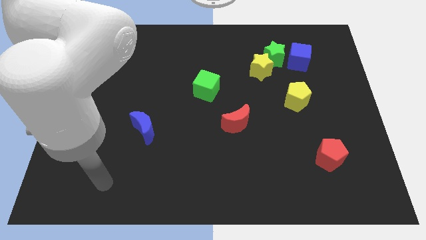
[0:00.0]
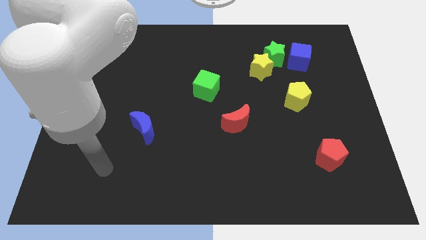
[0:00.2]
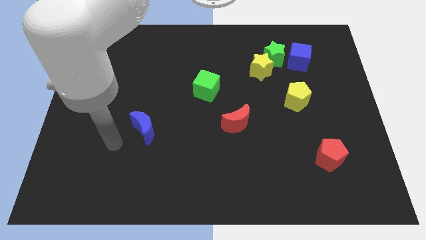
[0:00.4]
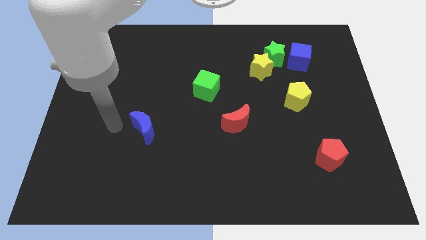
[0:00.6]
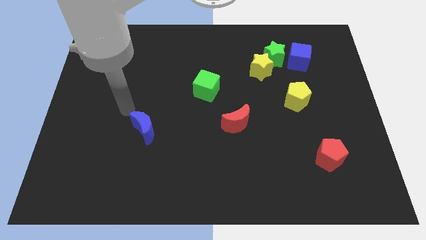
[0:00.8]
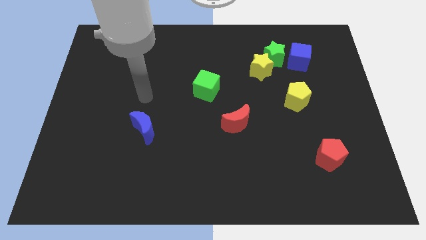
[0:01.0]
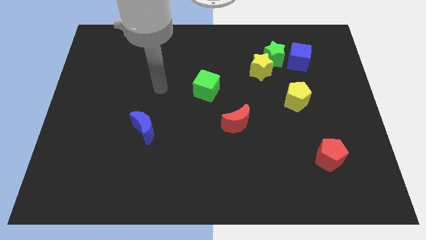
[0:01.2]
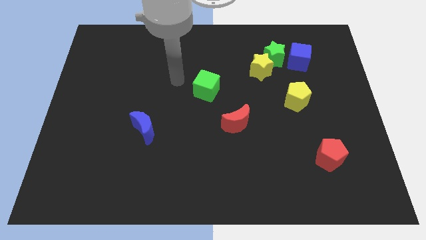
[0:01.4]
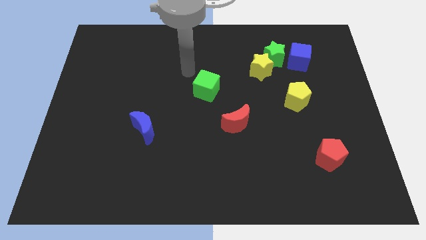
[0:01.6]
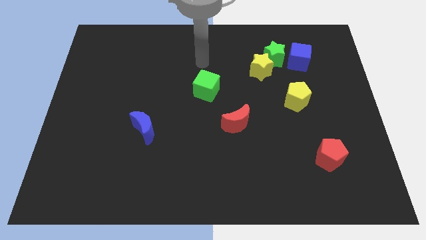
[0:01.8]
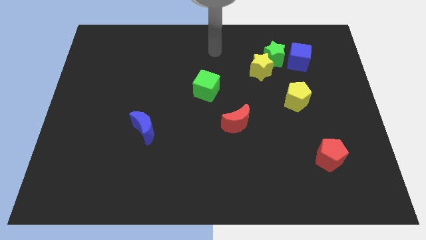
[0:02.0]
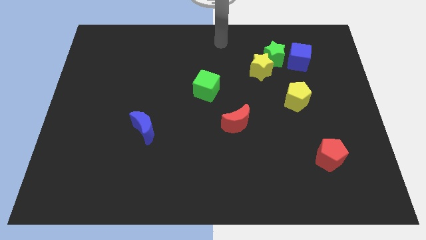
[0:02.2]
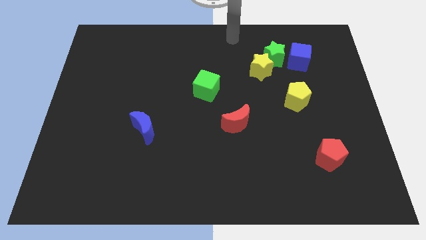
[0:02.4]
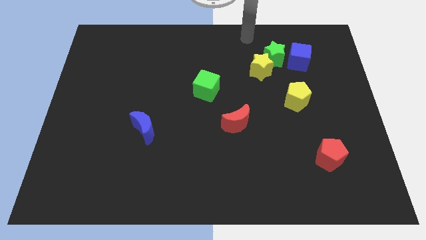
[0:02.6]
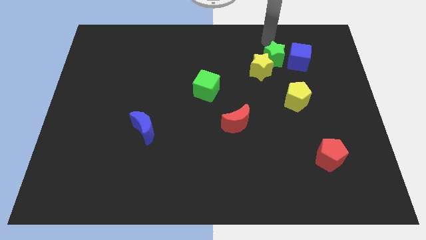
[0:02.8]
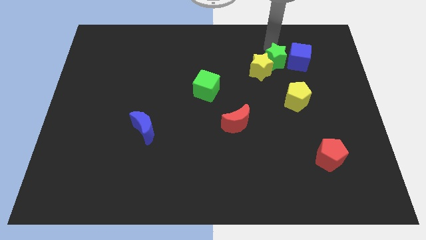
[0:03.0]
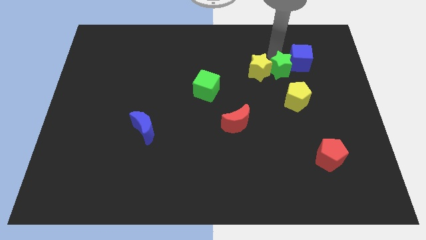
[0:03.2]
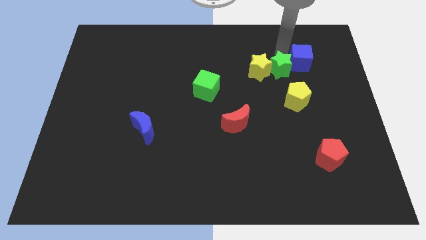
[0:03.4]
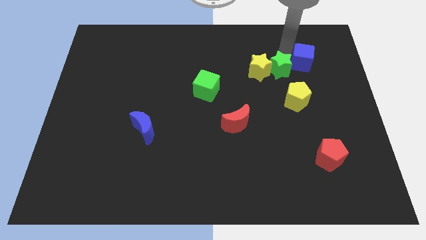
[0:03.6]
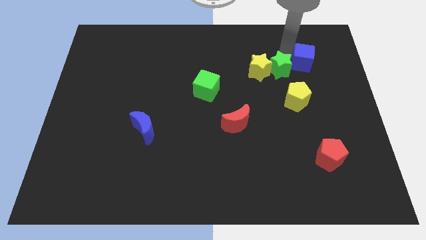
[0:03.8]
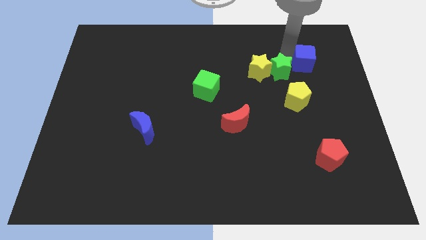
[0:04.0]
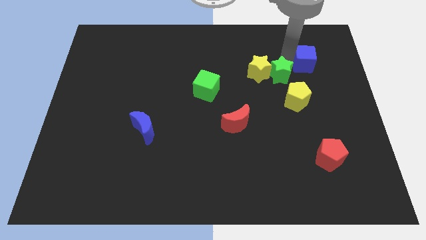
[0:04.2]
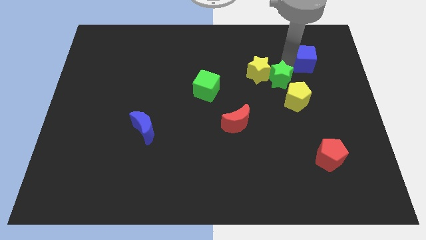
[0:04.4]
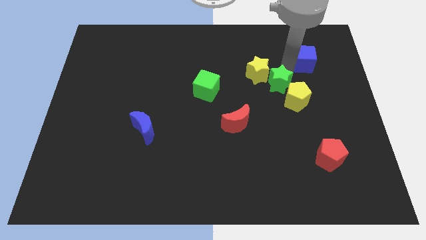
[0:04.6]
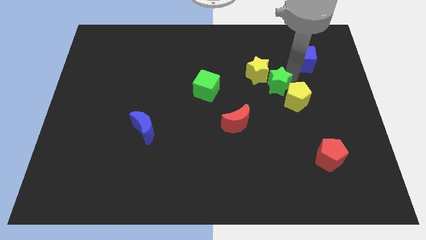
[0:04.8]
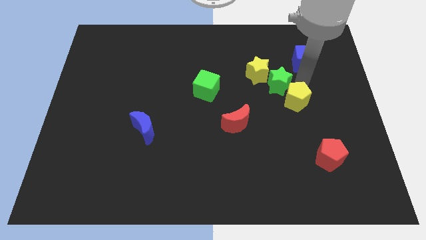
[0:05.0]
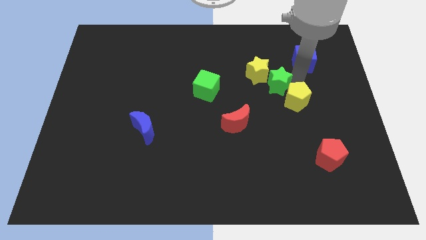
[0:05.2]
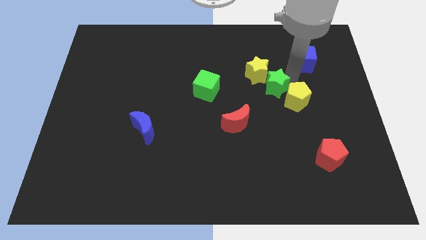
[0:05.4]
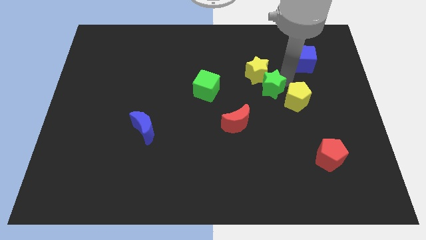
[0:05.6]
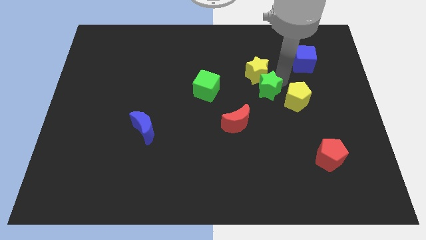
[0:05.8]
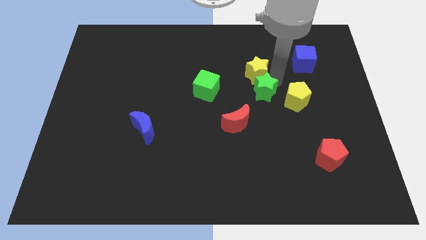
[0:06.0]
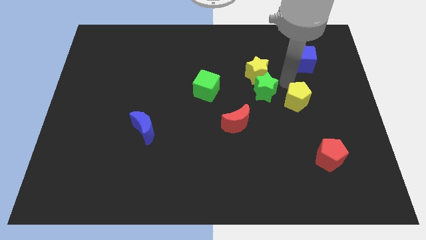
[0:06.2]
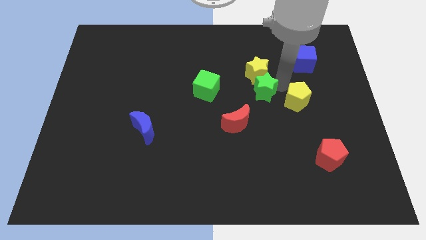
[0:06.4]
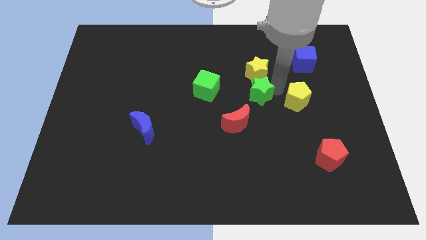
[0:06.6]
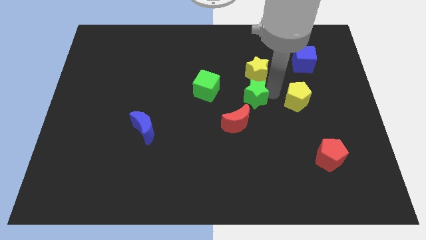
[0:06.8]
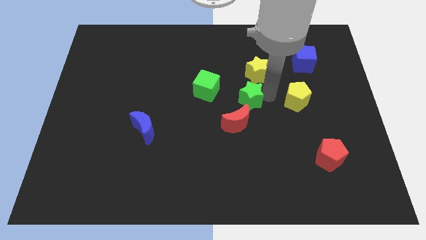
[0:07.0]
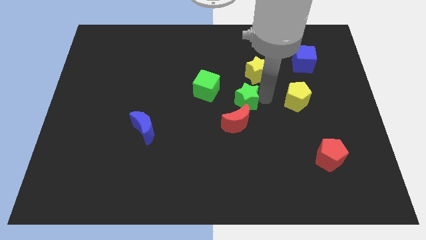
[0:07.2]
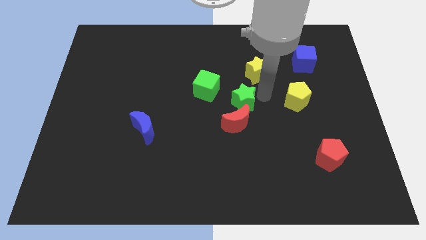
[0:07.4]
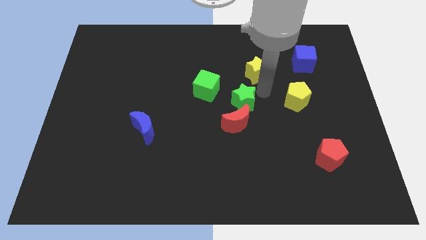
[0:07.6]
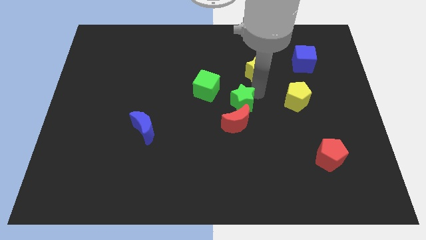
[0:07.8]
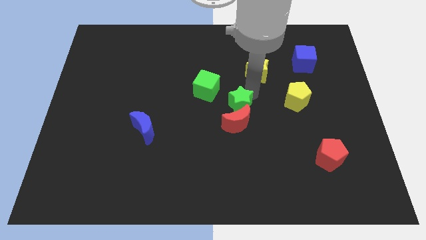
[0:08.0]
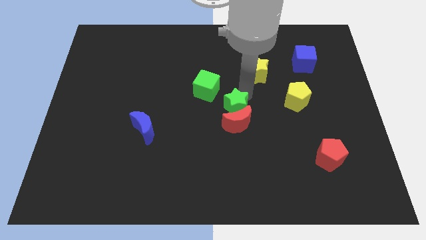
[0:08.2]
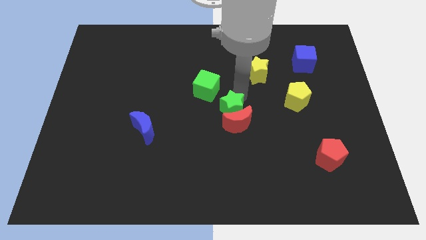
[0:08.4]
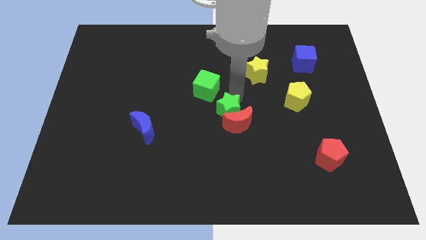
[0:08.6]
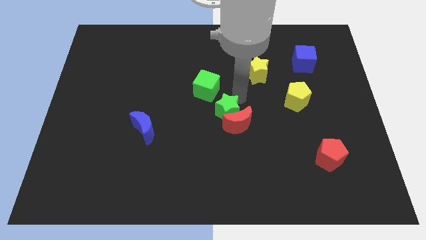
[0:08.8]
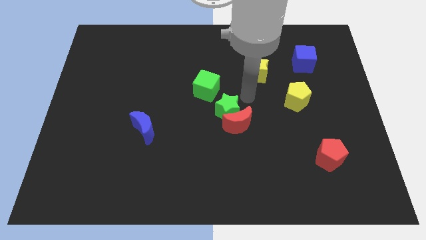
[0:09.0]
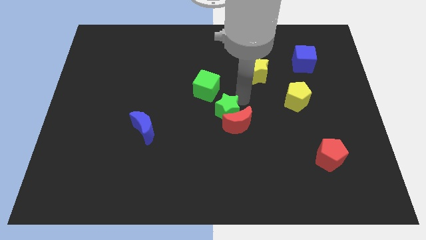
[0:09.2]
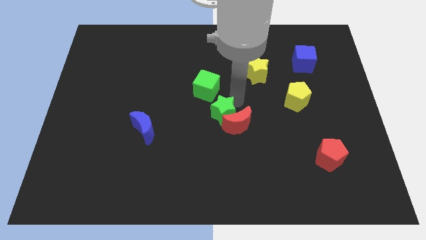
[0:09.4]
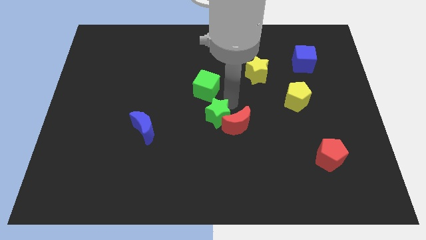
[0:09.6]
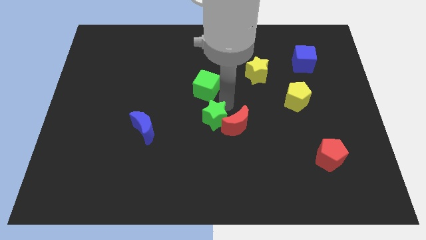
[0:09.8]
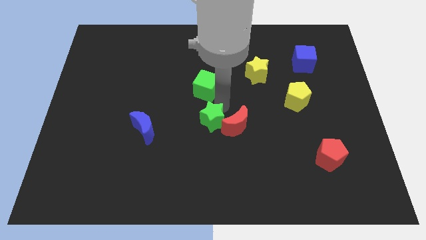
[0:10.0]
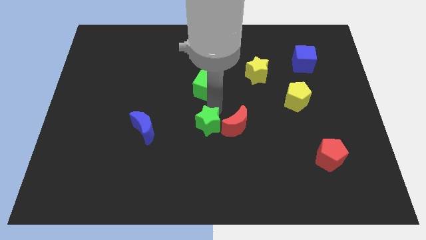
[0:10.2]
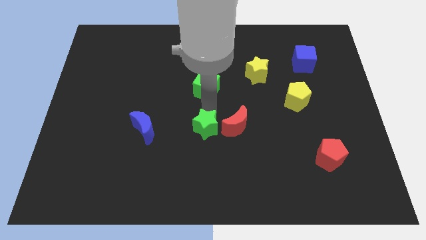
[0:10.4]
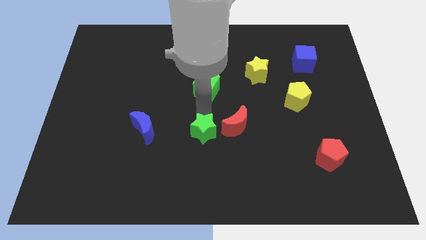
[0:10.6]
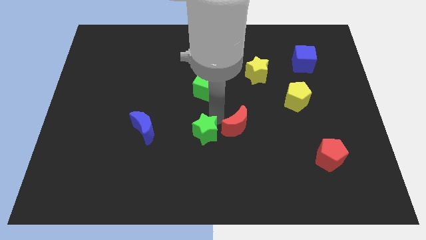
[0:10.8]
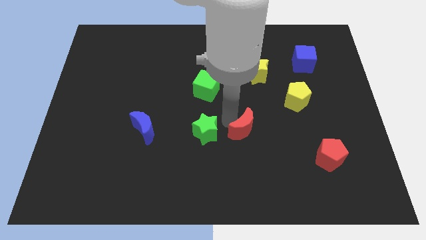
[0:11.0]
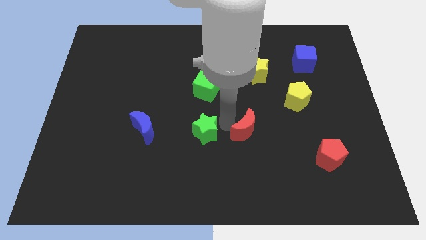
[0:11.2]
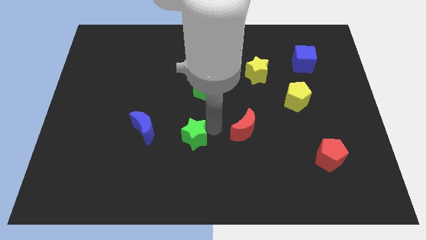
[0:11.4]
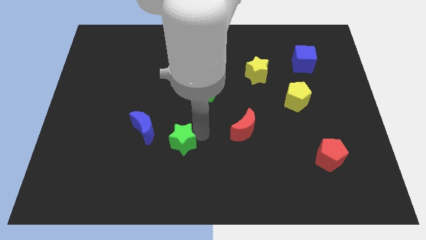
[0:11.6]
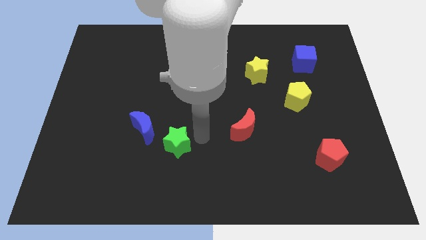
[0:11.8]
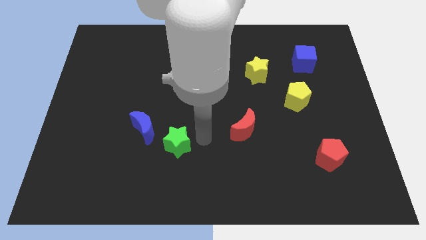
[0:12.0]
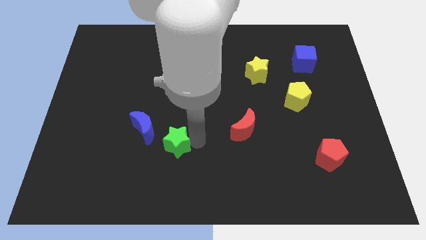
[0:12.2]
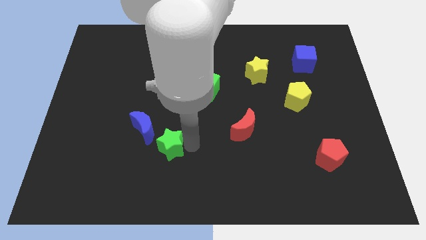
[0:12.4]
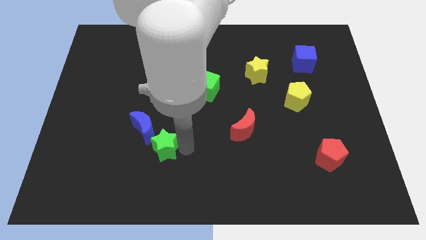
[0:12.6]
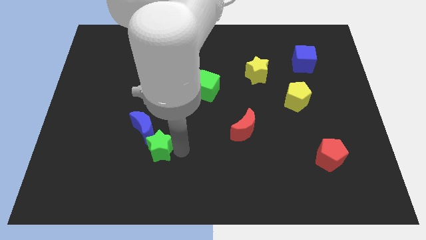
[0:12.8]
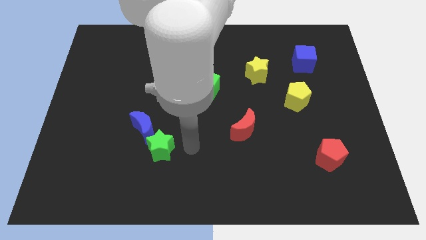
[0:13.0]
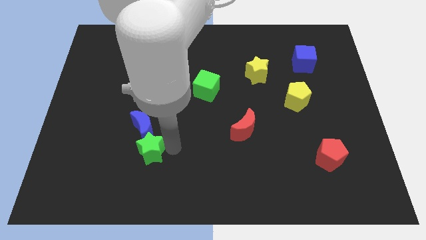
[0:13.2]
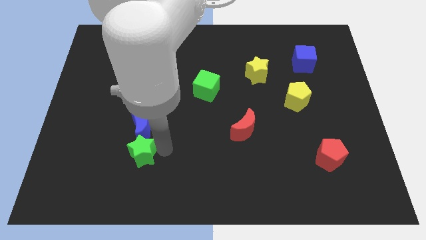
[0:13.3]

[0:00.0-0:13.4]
move the green star to the bottom left side of the blue moon
